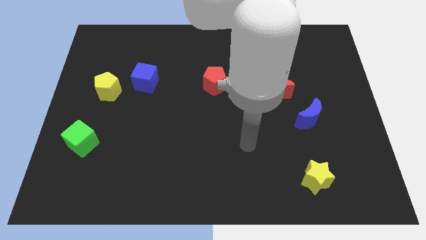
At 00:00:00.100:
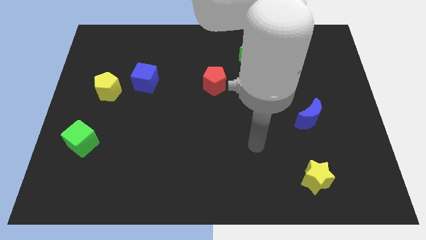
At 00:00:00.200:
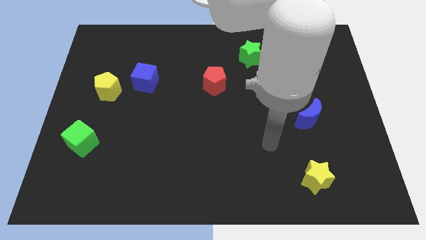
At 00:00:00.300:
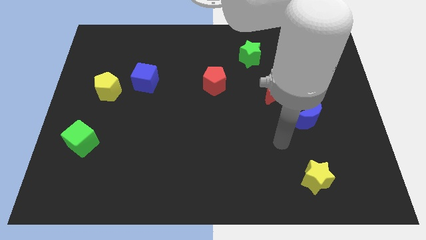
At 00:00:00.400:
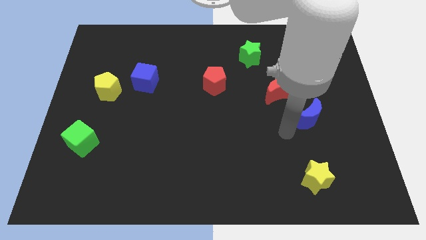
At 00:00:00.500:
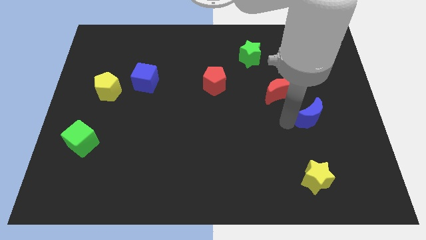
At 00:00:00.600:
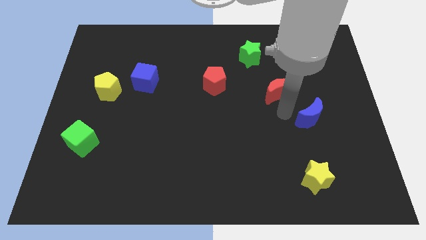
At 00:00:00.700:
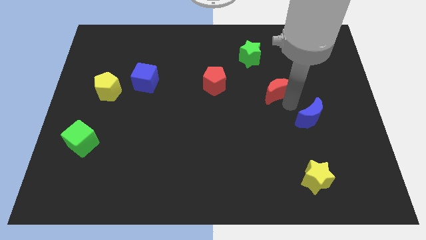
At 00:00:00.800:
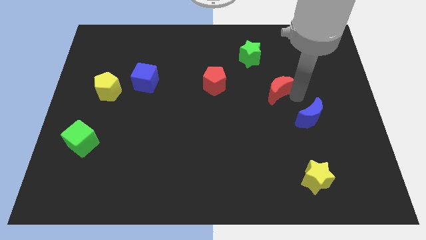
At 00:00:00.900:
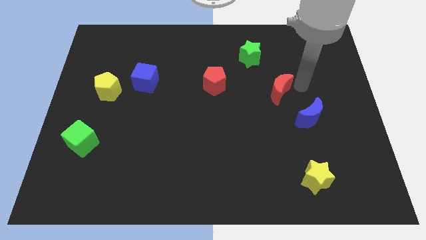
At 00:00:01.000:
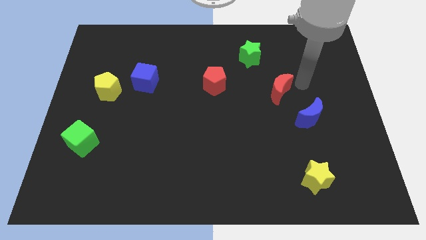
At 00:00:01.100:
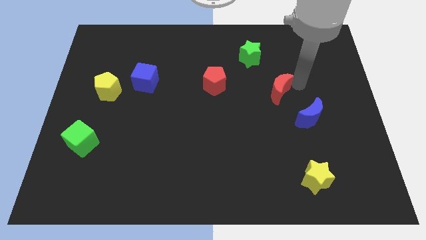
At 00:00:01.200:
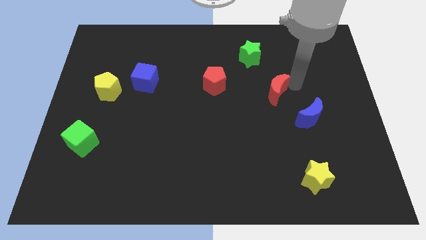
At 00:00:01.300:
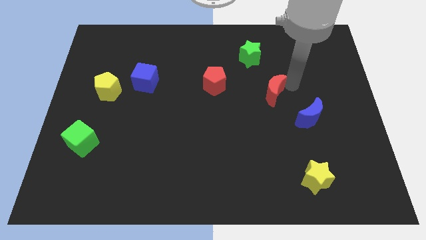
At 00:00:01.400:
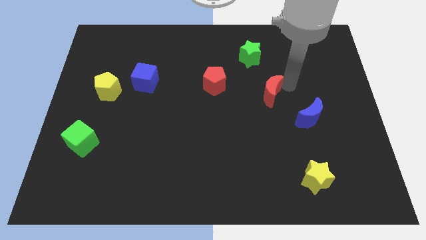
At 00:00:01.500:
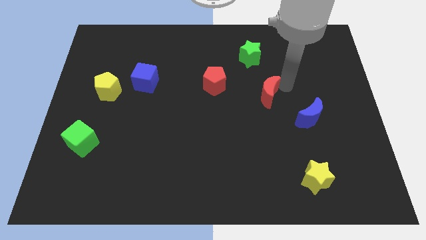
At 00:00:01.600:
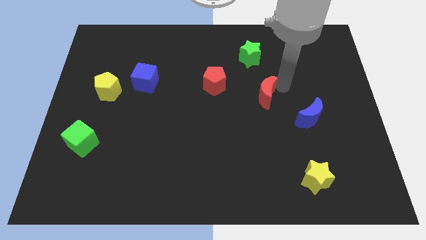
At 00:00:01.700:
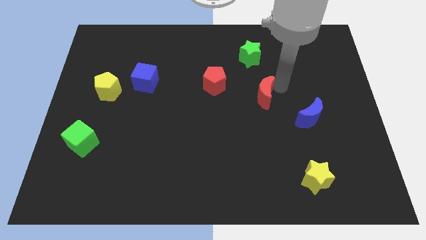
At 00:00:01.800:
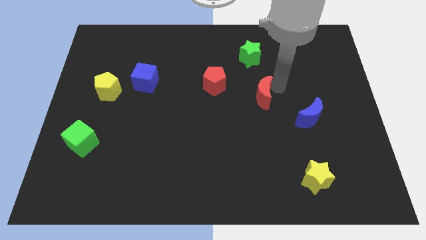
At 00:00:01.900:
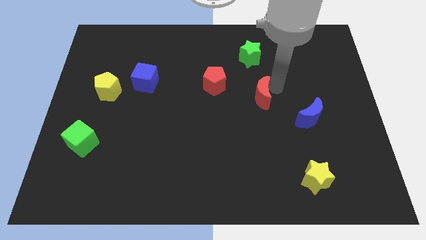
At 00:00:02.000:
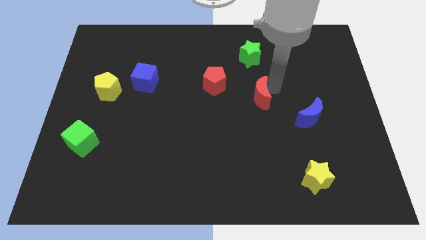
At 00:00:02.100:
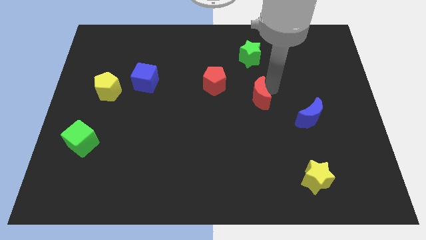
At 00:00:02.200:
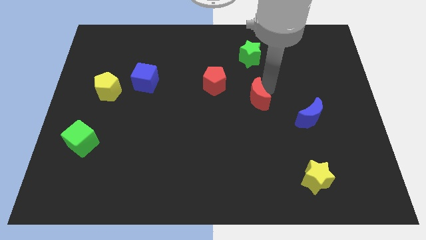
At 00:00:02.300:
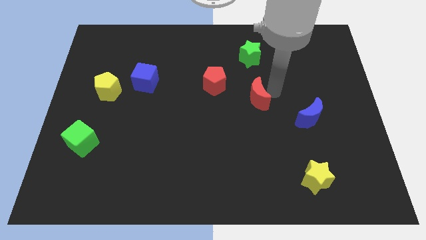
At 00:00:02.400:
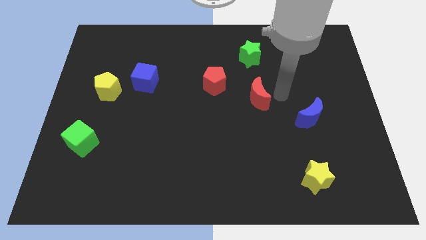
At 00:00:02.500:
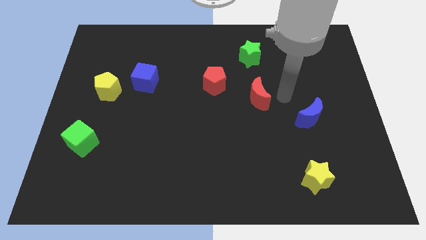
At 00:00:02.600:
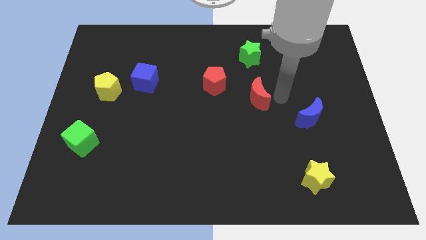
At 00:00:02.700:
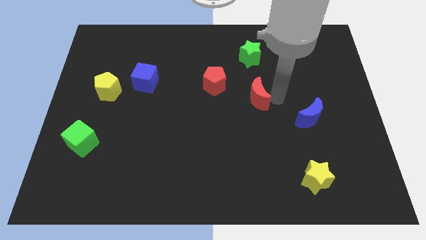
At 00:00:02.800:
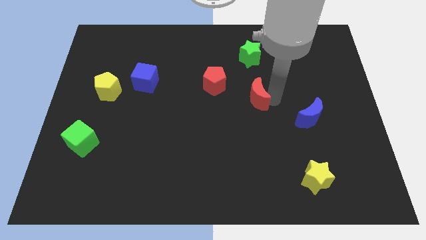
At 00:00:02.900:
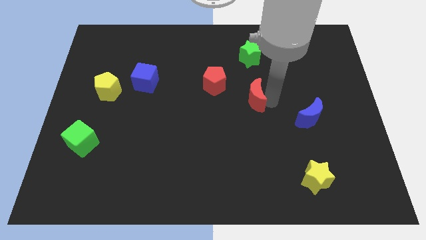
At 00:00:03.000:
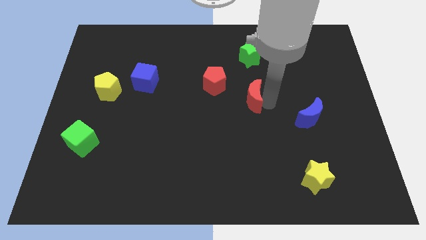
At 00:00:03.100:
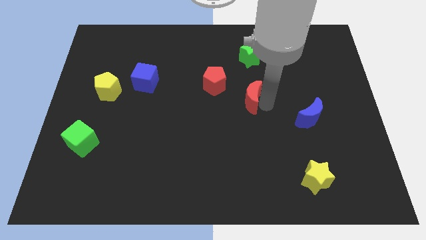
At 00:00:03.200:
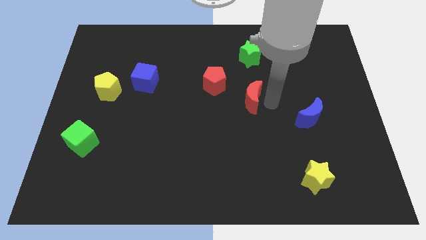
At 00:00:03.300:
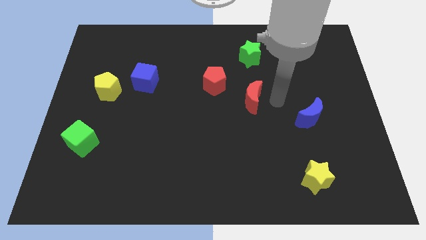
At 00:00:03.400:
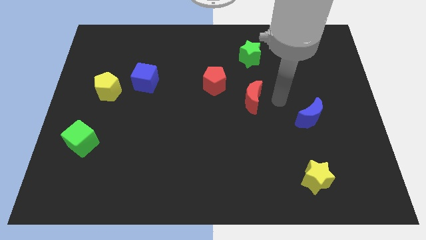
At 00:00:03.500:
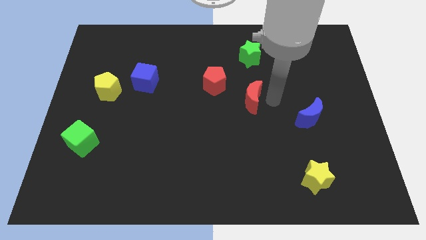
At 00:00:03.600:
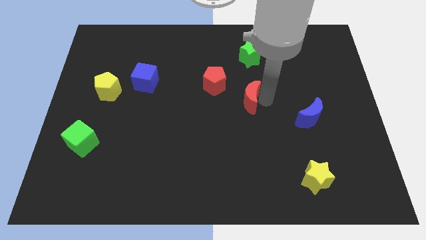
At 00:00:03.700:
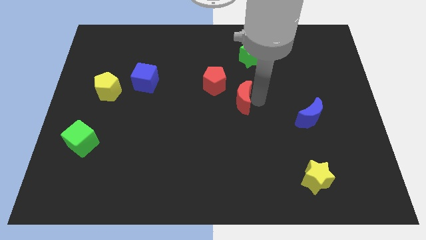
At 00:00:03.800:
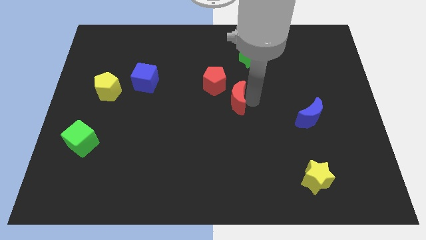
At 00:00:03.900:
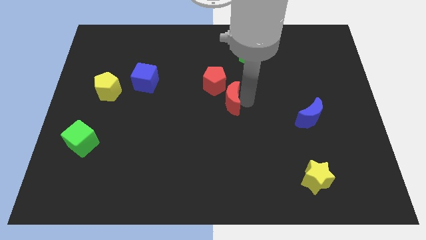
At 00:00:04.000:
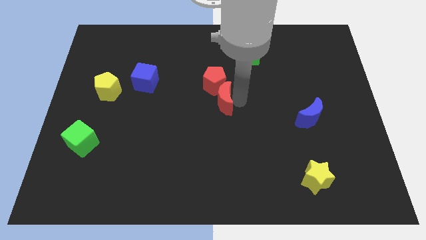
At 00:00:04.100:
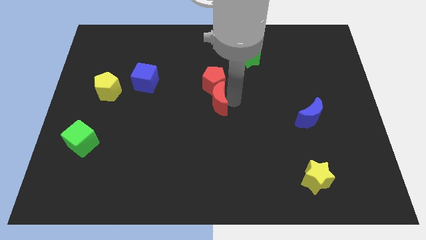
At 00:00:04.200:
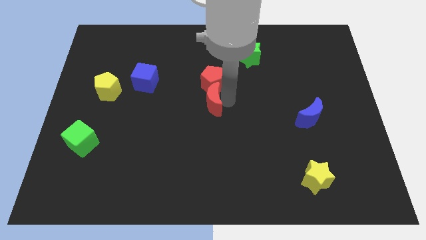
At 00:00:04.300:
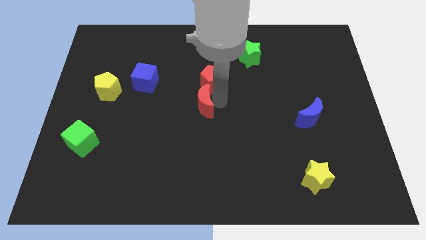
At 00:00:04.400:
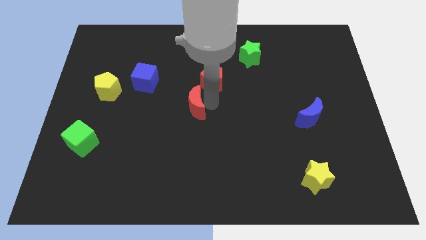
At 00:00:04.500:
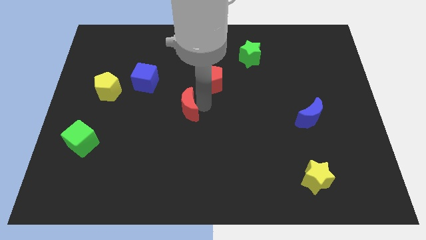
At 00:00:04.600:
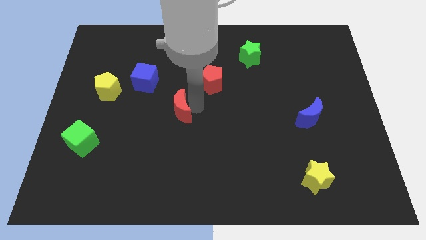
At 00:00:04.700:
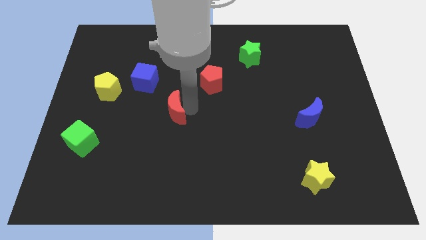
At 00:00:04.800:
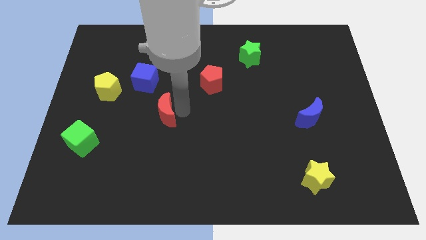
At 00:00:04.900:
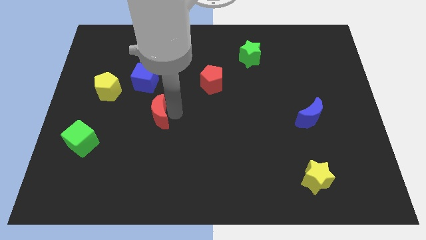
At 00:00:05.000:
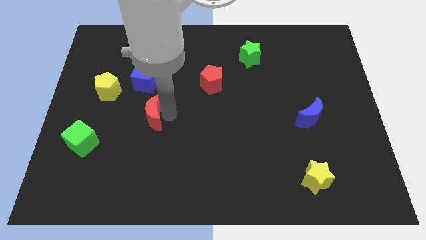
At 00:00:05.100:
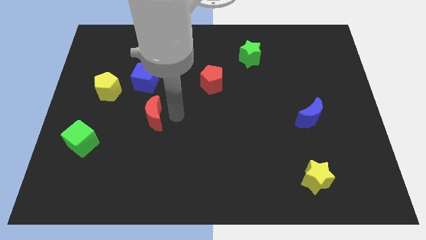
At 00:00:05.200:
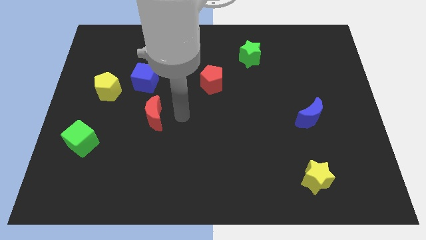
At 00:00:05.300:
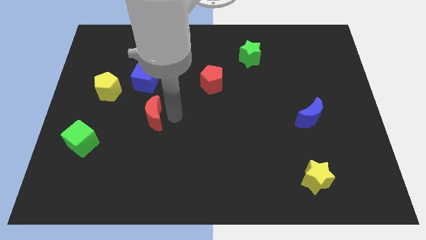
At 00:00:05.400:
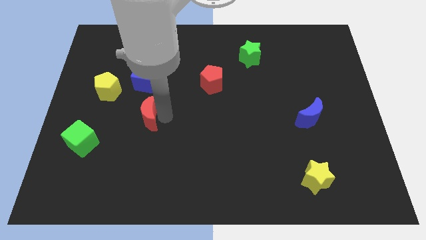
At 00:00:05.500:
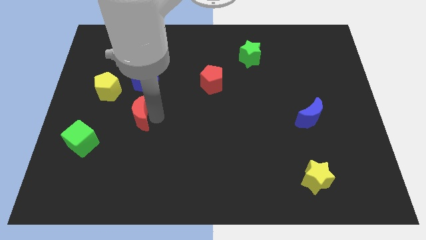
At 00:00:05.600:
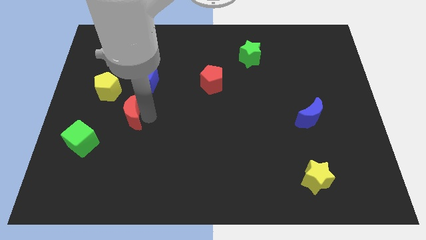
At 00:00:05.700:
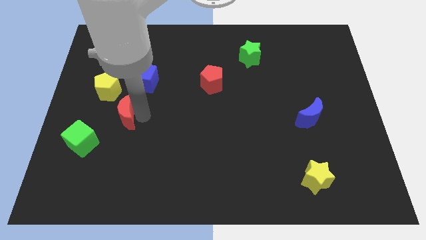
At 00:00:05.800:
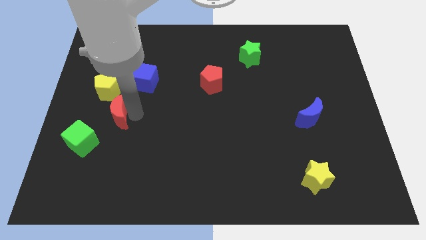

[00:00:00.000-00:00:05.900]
slide the red moon to the bottom side of the yellow pentagon

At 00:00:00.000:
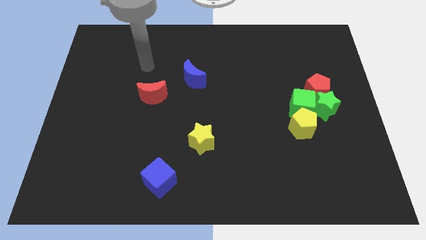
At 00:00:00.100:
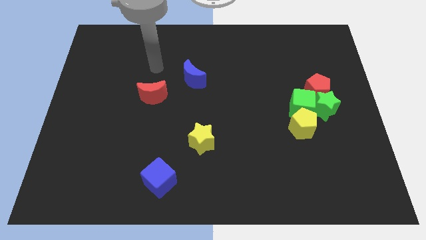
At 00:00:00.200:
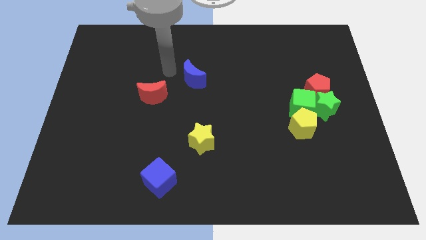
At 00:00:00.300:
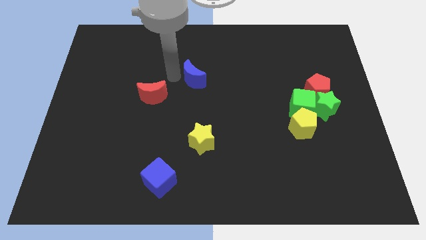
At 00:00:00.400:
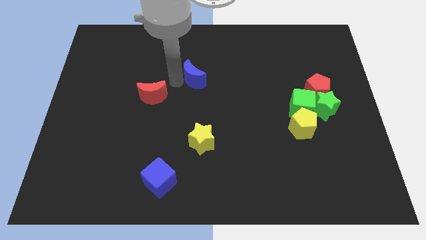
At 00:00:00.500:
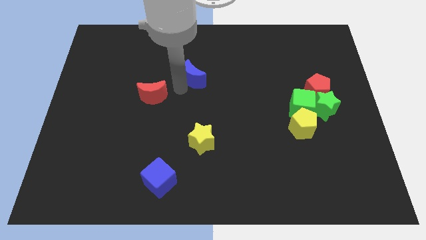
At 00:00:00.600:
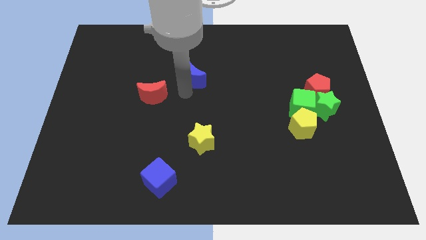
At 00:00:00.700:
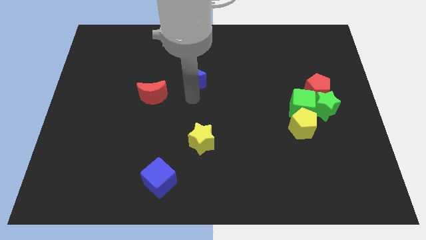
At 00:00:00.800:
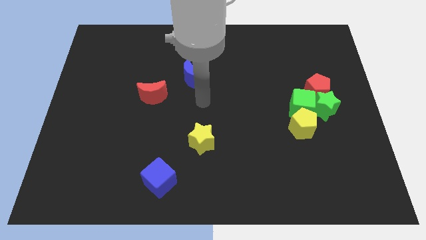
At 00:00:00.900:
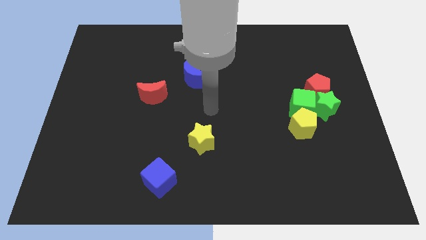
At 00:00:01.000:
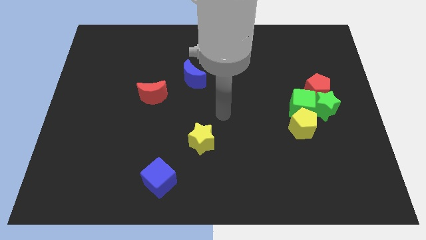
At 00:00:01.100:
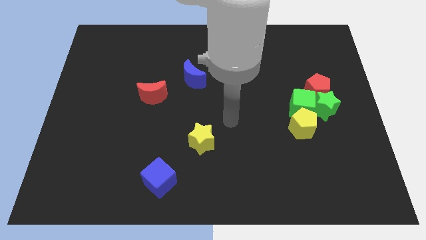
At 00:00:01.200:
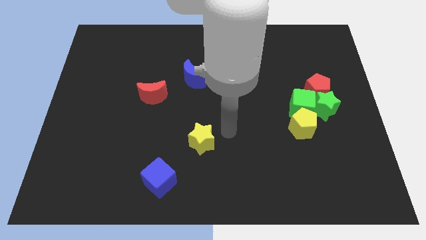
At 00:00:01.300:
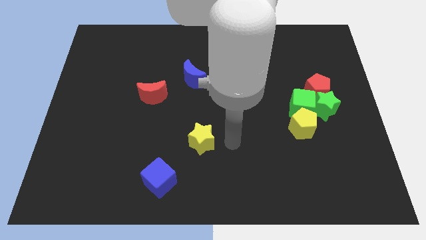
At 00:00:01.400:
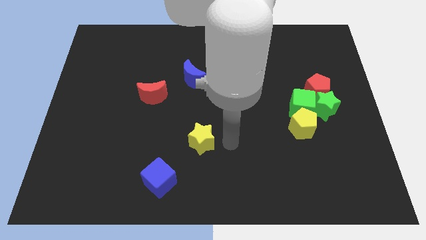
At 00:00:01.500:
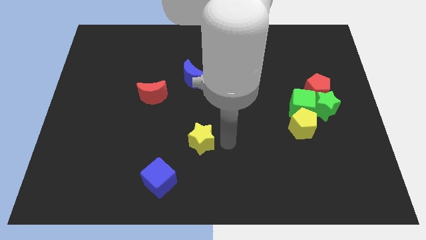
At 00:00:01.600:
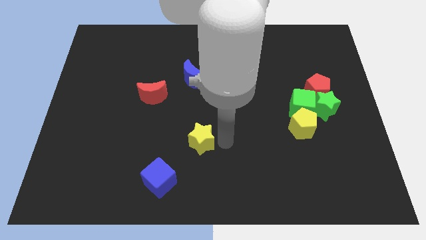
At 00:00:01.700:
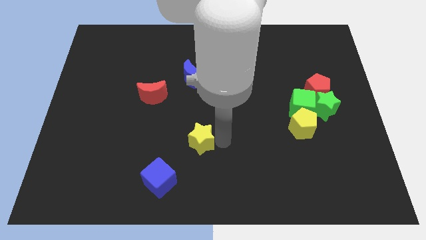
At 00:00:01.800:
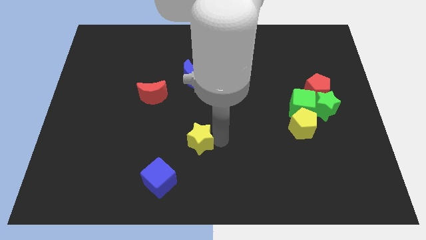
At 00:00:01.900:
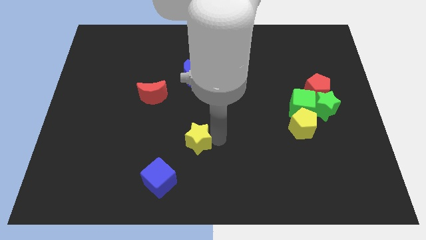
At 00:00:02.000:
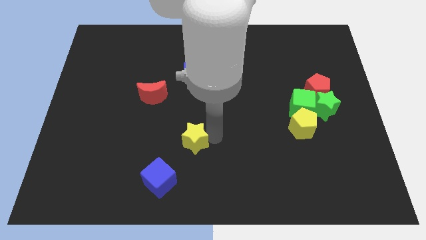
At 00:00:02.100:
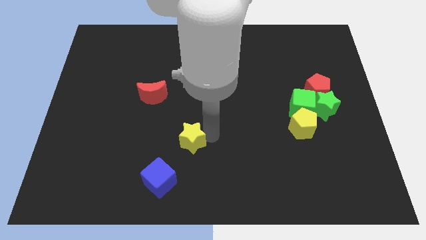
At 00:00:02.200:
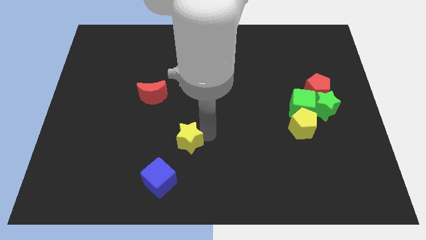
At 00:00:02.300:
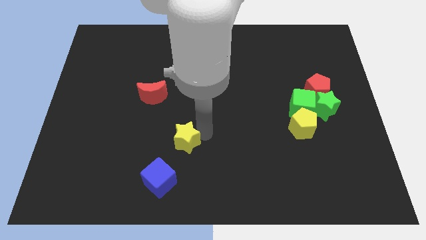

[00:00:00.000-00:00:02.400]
move the yellow star above the blue cube
